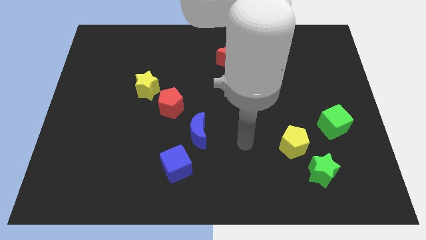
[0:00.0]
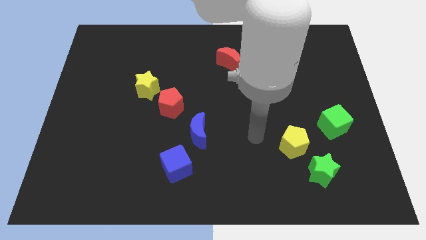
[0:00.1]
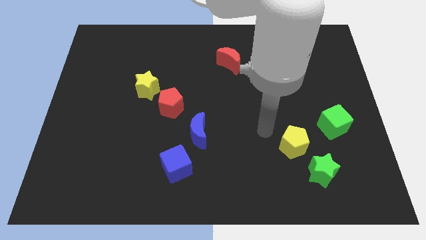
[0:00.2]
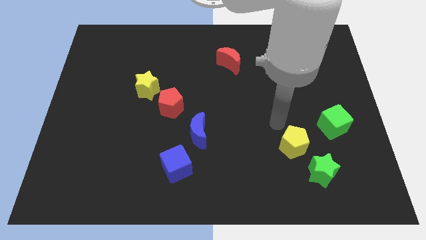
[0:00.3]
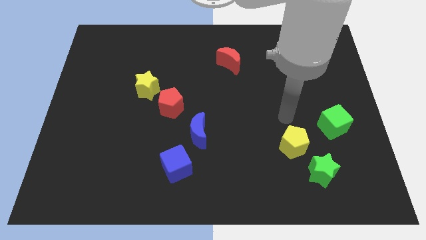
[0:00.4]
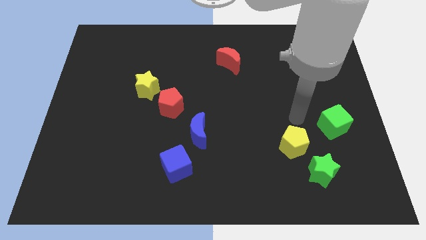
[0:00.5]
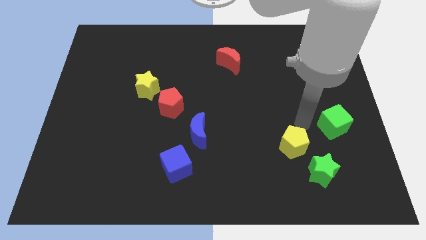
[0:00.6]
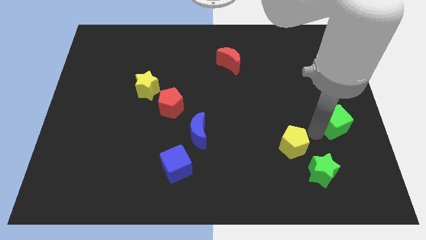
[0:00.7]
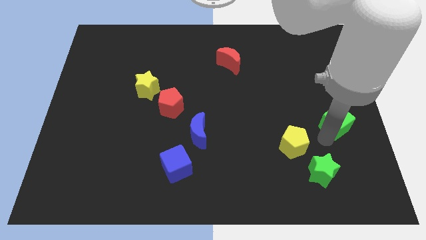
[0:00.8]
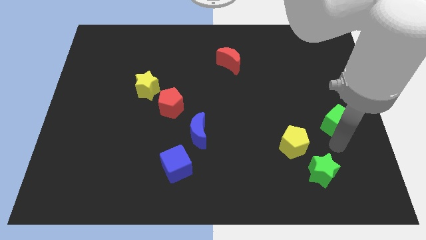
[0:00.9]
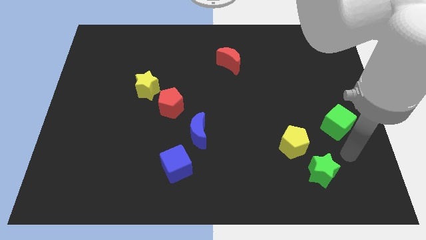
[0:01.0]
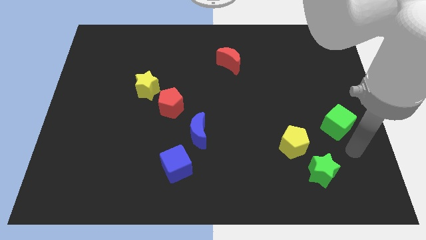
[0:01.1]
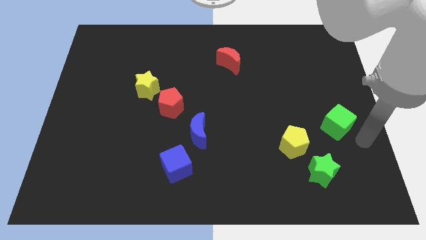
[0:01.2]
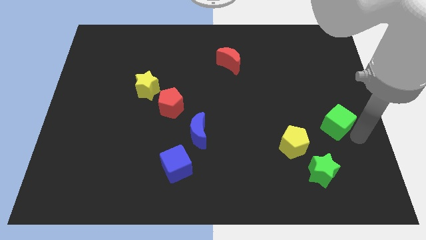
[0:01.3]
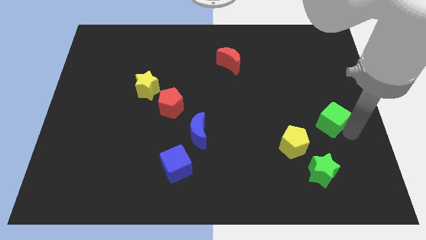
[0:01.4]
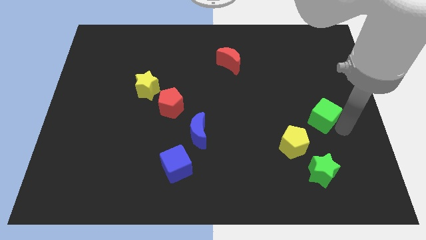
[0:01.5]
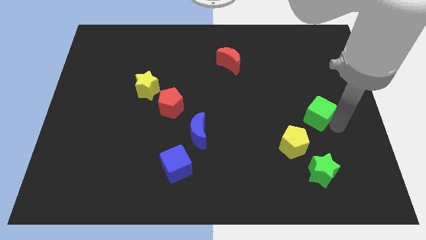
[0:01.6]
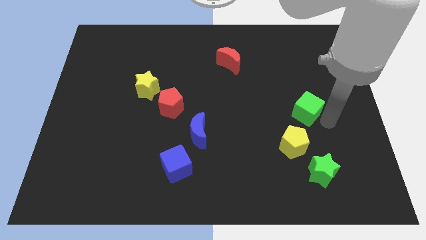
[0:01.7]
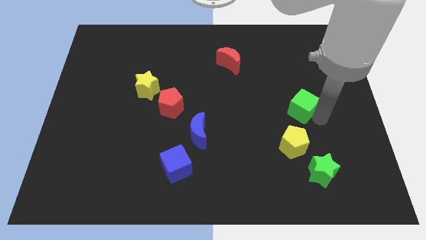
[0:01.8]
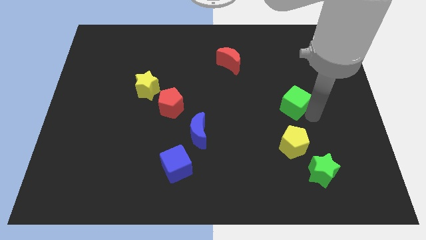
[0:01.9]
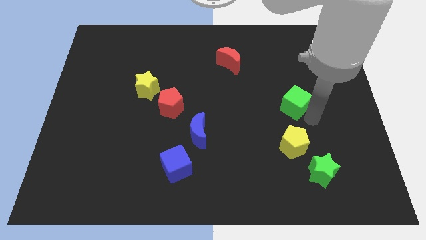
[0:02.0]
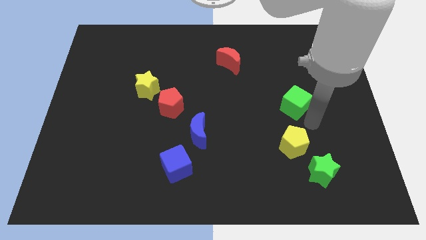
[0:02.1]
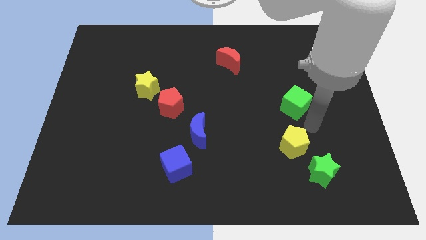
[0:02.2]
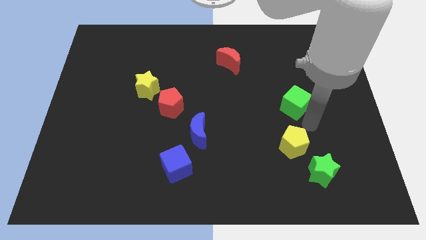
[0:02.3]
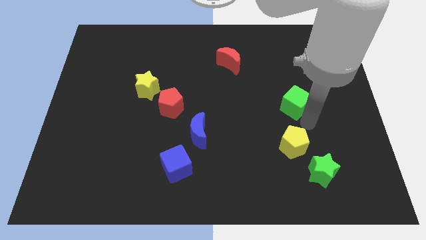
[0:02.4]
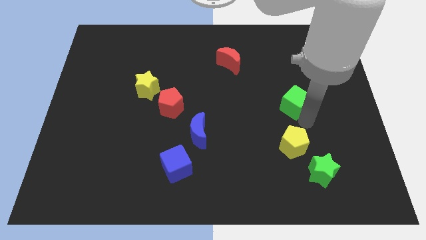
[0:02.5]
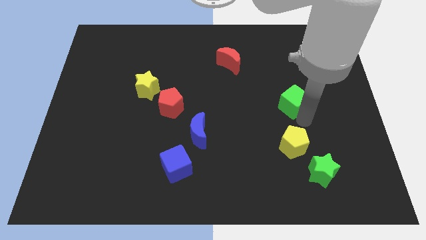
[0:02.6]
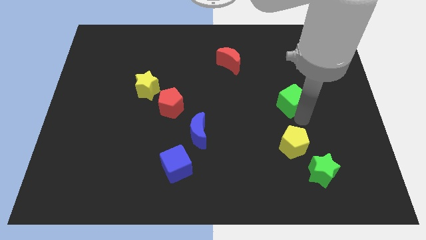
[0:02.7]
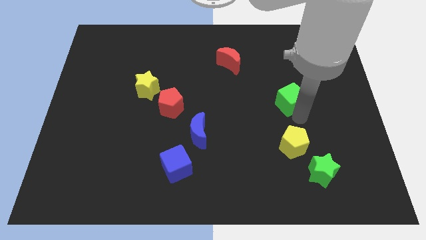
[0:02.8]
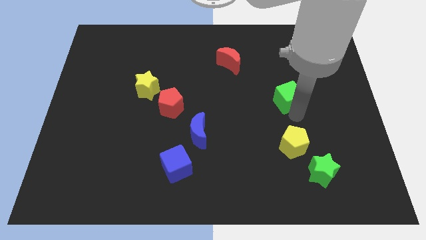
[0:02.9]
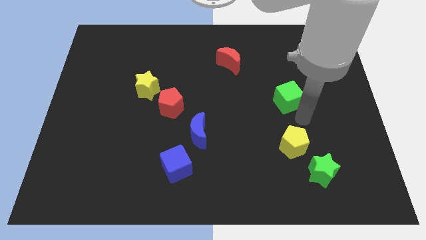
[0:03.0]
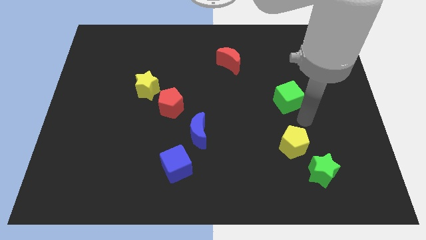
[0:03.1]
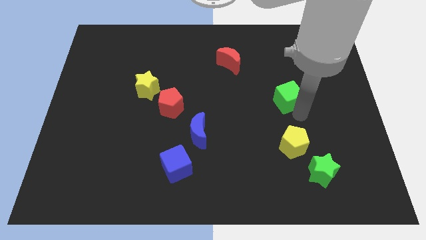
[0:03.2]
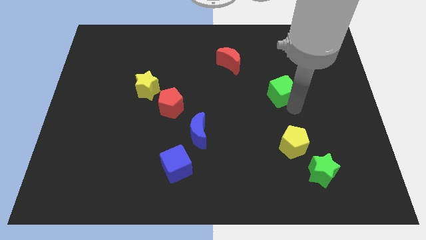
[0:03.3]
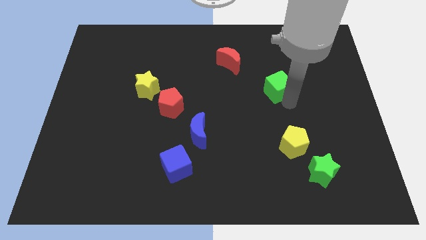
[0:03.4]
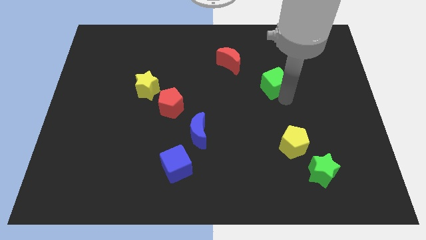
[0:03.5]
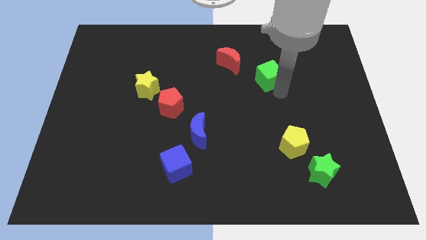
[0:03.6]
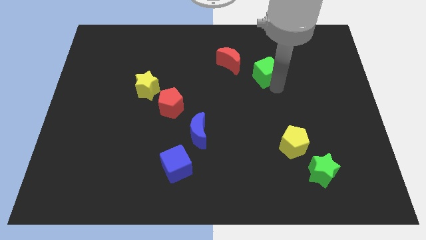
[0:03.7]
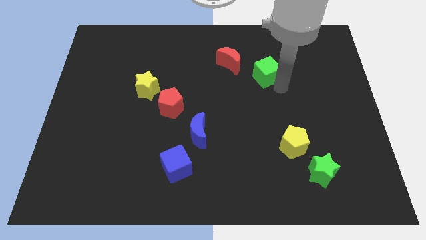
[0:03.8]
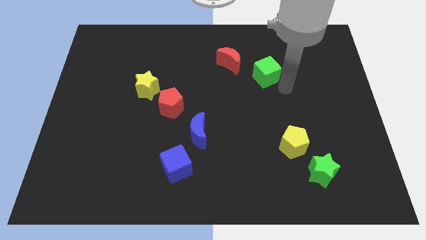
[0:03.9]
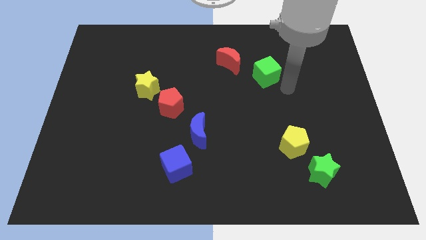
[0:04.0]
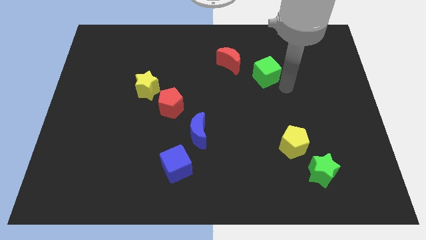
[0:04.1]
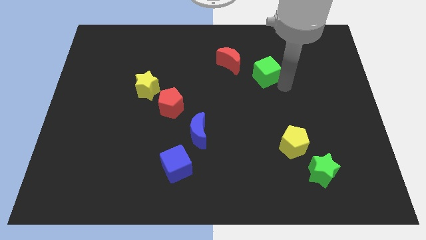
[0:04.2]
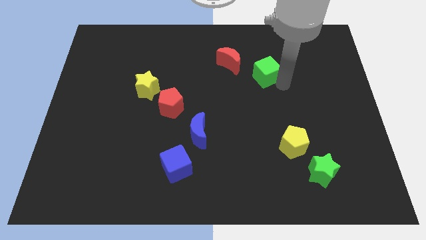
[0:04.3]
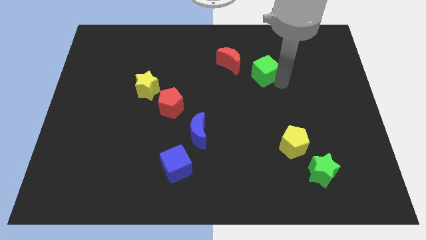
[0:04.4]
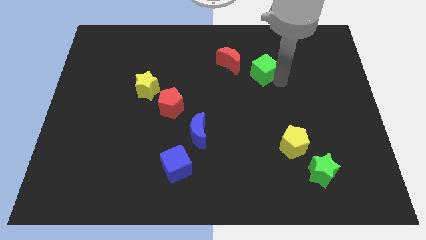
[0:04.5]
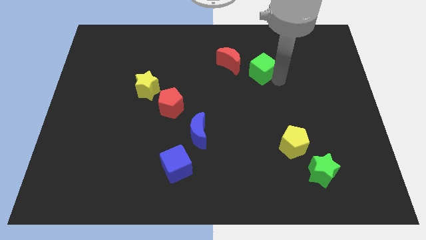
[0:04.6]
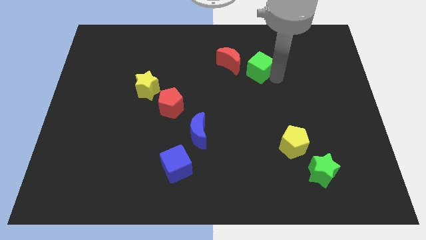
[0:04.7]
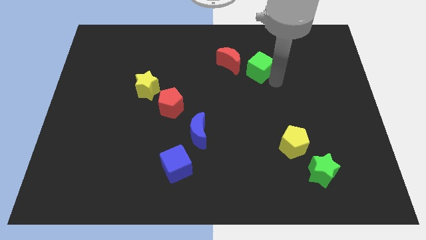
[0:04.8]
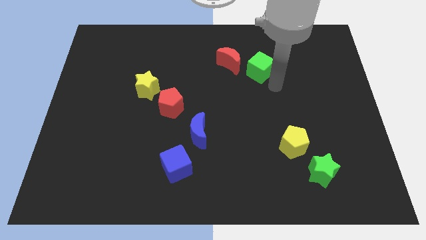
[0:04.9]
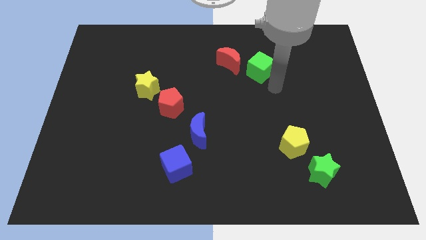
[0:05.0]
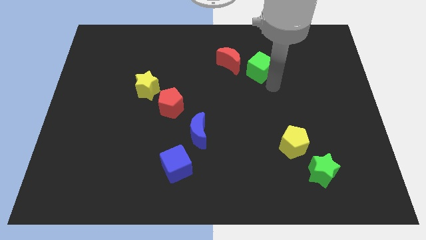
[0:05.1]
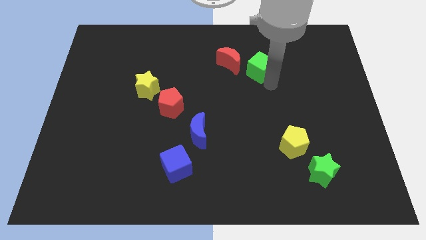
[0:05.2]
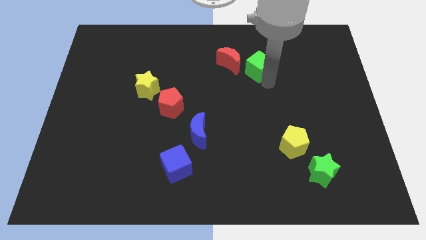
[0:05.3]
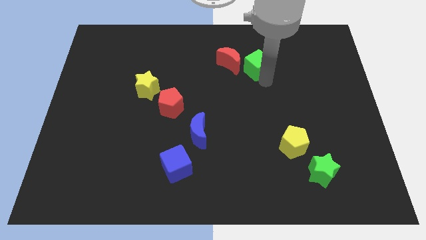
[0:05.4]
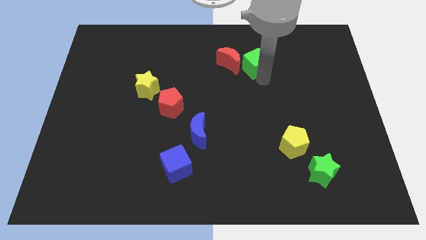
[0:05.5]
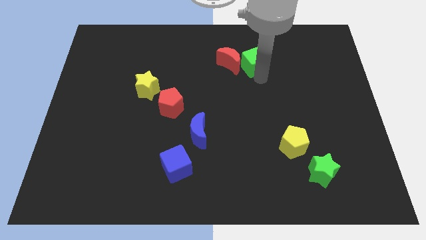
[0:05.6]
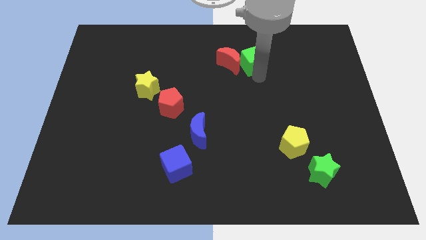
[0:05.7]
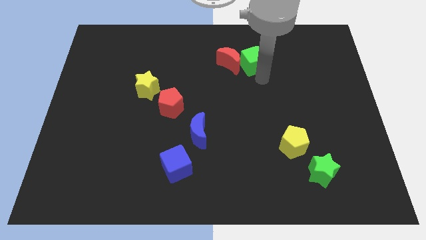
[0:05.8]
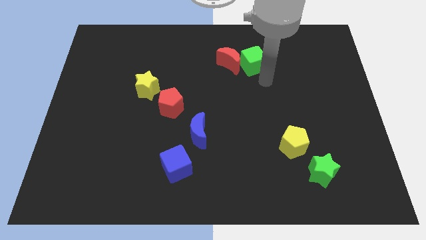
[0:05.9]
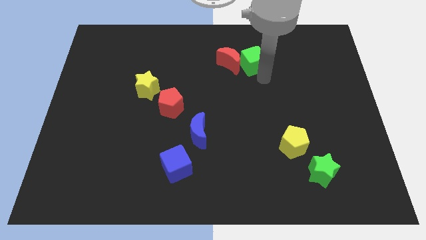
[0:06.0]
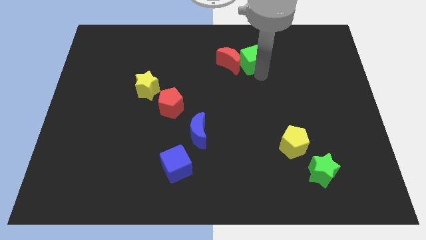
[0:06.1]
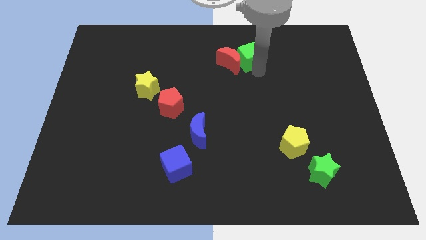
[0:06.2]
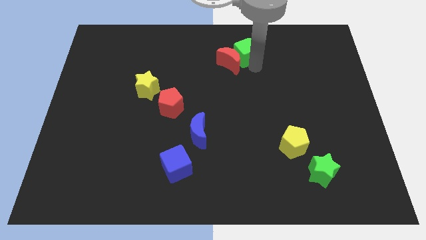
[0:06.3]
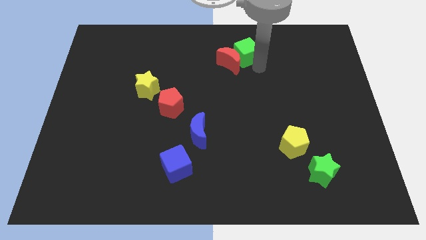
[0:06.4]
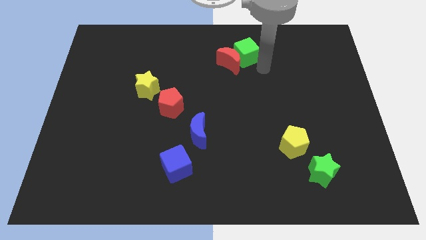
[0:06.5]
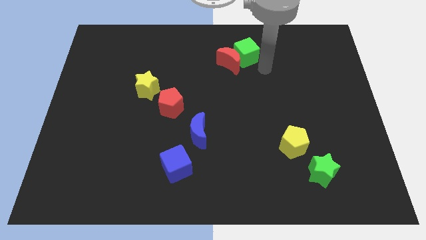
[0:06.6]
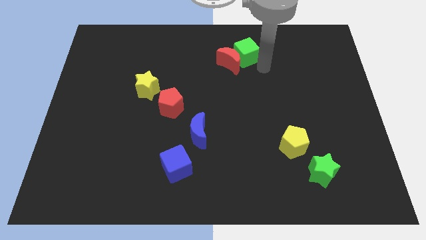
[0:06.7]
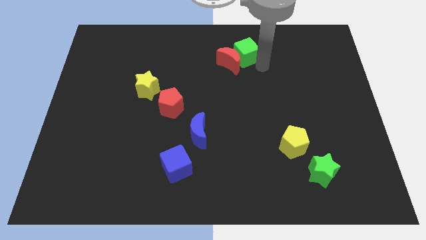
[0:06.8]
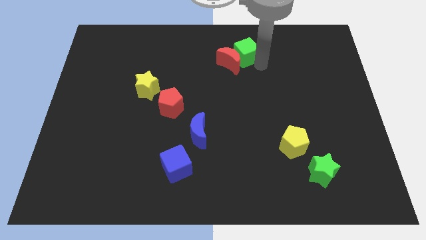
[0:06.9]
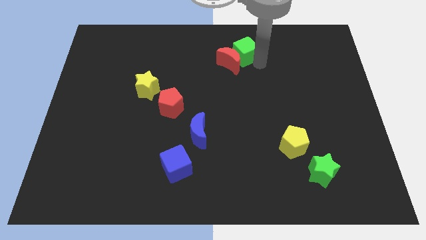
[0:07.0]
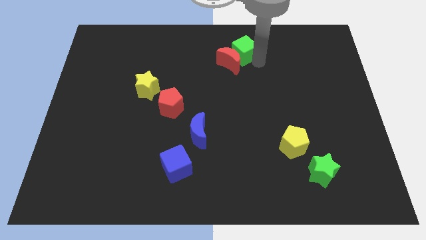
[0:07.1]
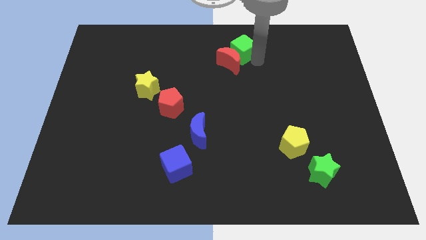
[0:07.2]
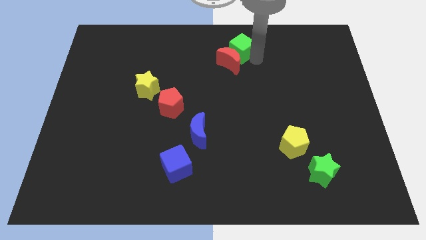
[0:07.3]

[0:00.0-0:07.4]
move the green cube to the towards your base

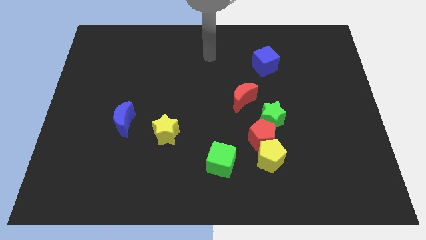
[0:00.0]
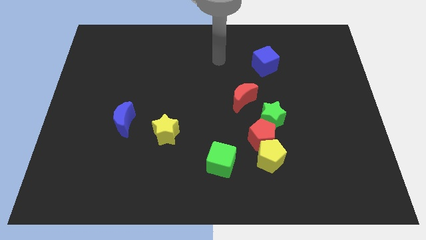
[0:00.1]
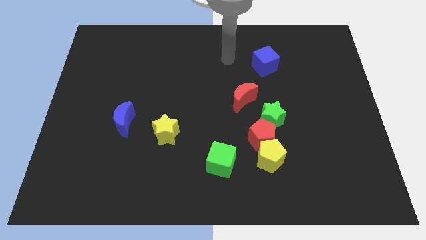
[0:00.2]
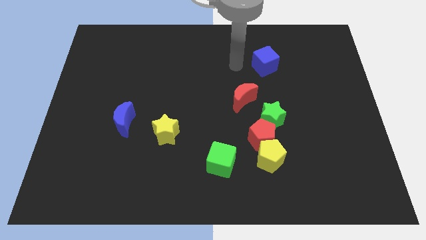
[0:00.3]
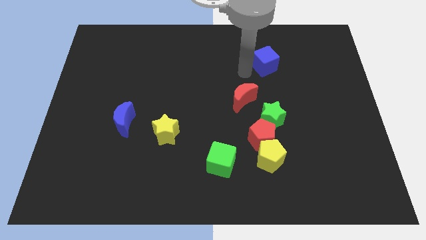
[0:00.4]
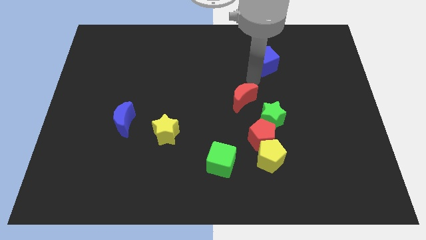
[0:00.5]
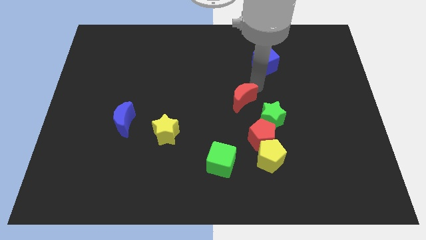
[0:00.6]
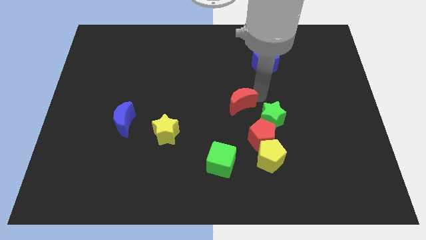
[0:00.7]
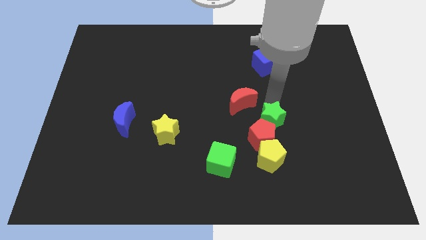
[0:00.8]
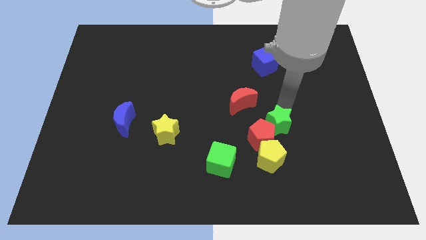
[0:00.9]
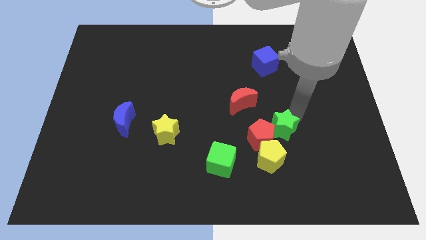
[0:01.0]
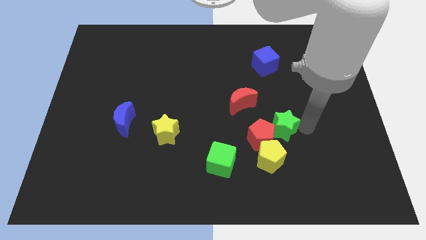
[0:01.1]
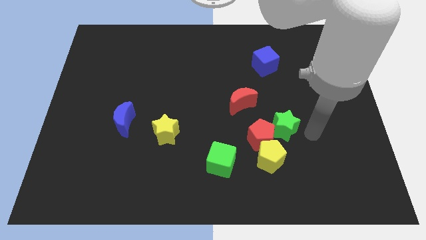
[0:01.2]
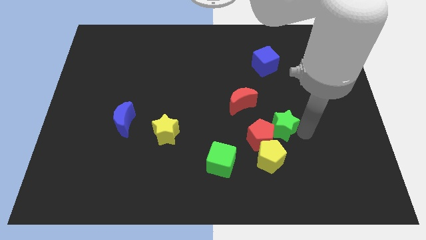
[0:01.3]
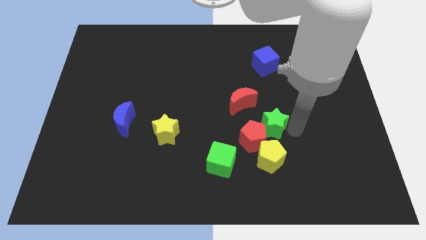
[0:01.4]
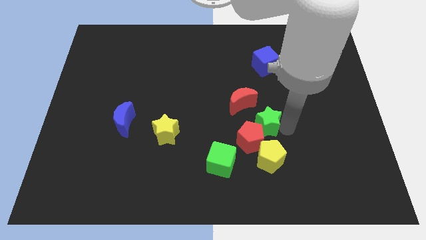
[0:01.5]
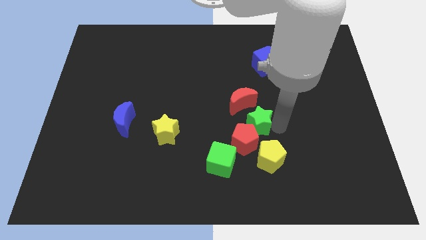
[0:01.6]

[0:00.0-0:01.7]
push the green star to the center of the board
